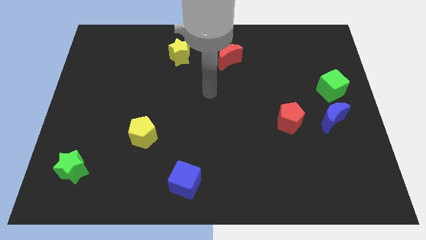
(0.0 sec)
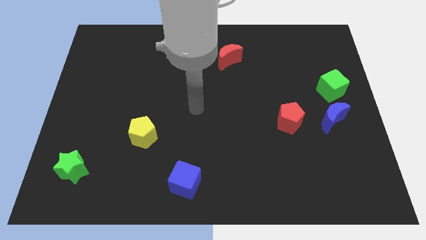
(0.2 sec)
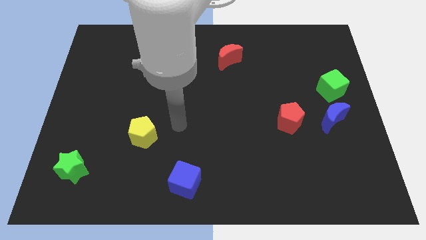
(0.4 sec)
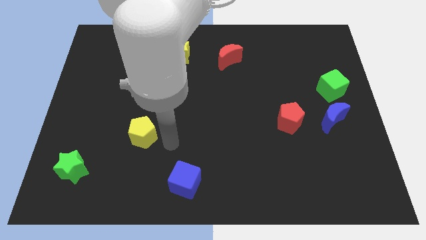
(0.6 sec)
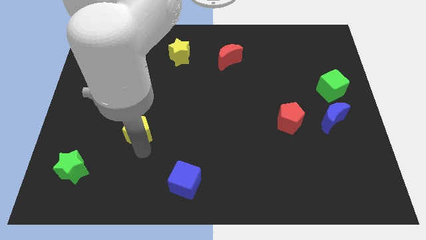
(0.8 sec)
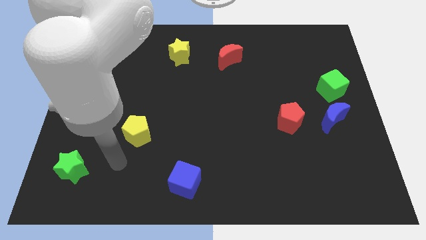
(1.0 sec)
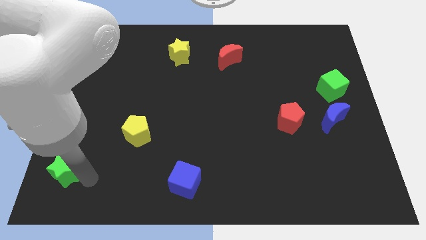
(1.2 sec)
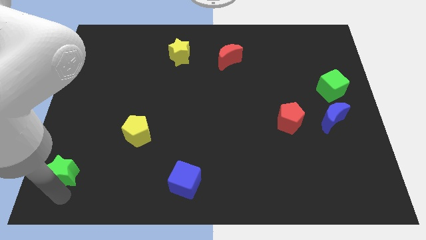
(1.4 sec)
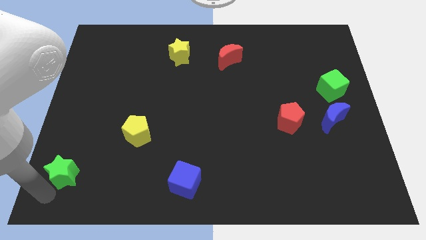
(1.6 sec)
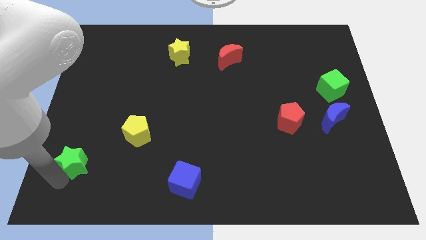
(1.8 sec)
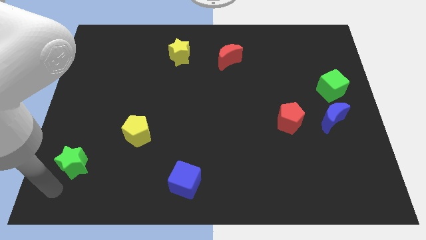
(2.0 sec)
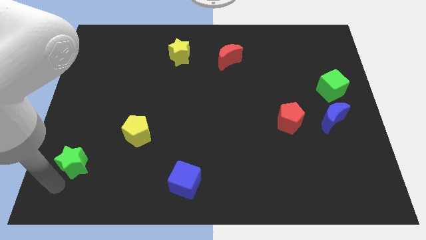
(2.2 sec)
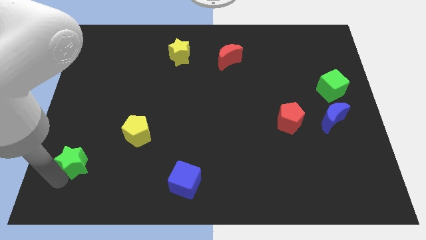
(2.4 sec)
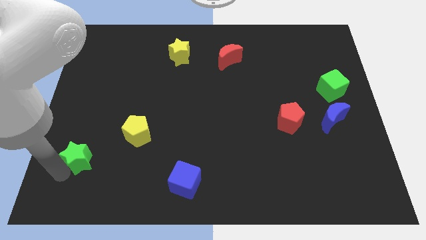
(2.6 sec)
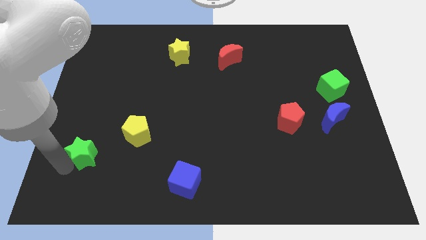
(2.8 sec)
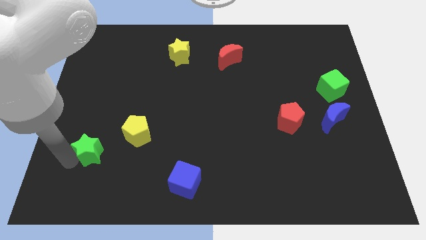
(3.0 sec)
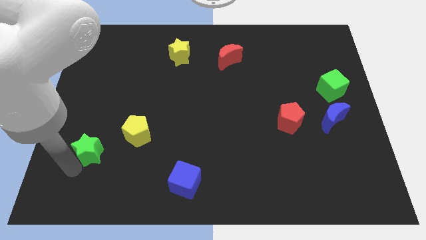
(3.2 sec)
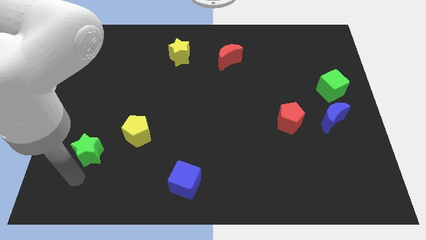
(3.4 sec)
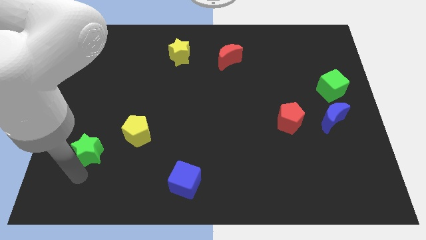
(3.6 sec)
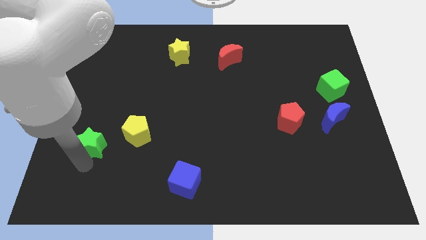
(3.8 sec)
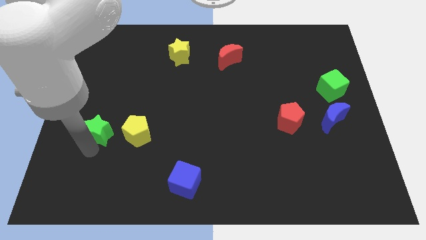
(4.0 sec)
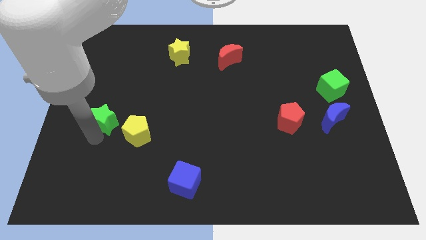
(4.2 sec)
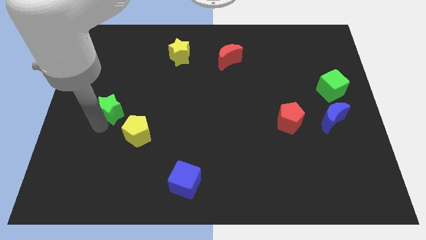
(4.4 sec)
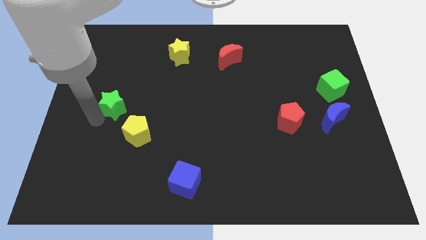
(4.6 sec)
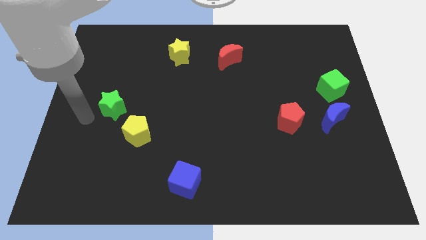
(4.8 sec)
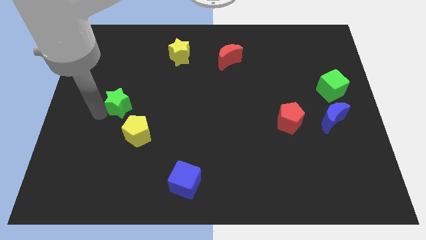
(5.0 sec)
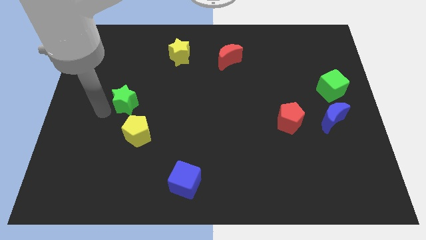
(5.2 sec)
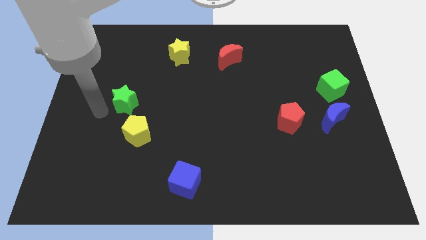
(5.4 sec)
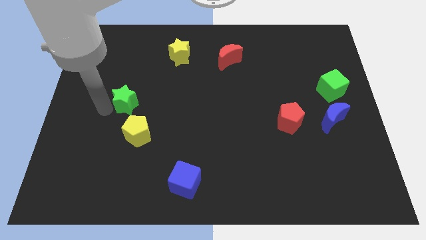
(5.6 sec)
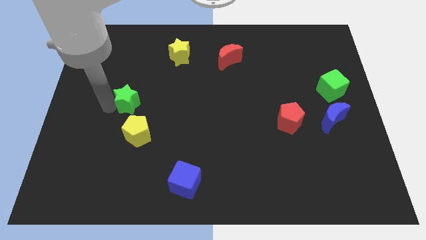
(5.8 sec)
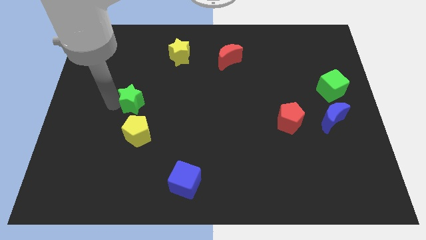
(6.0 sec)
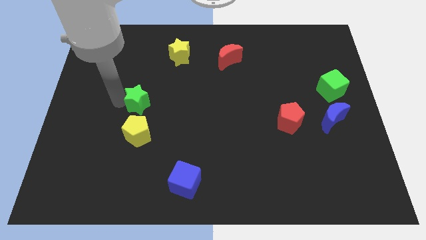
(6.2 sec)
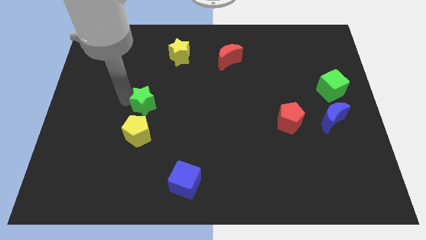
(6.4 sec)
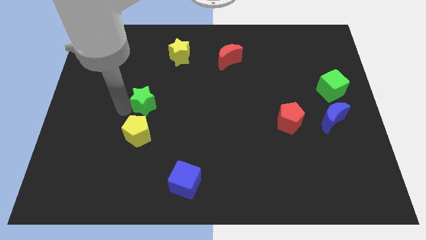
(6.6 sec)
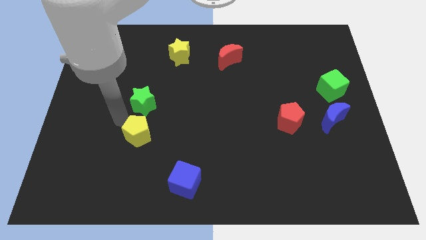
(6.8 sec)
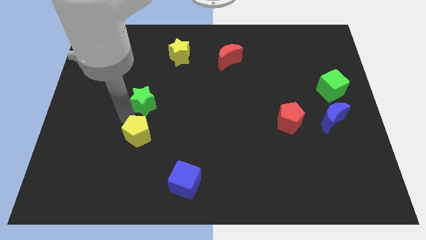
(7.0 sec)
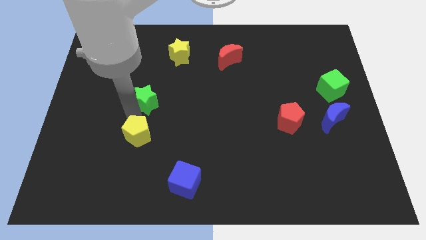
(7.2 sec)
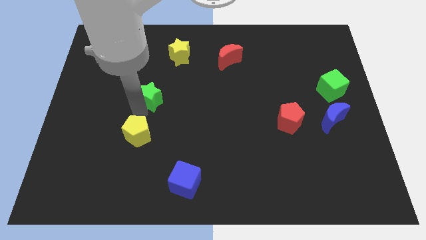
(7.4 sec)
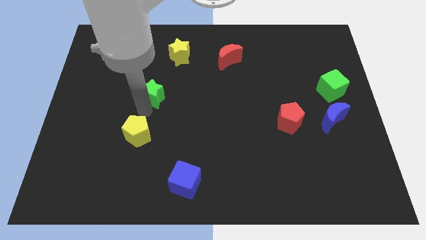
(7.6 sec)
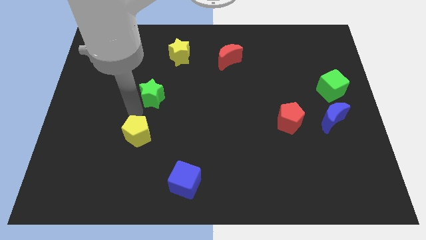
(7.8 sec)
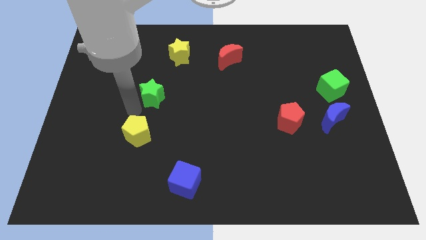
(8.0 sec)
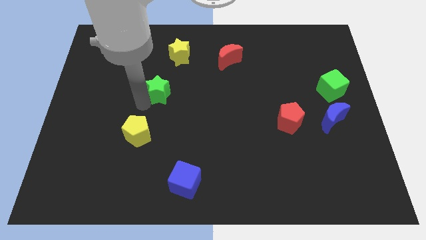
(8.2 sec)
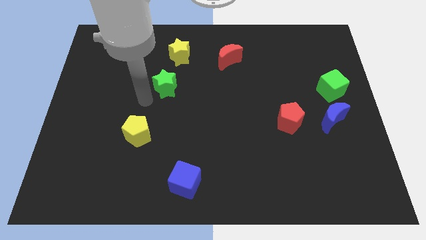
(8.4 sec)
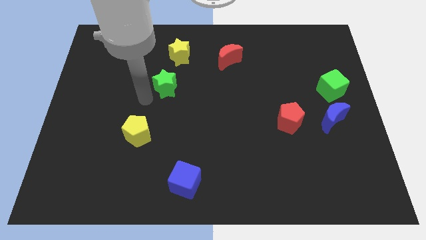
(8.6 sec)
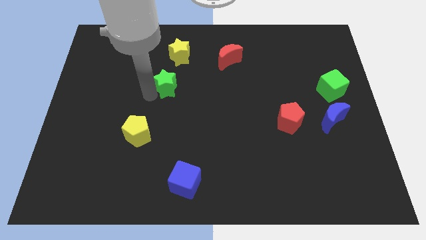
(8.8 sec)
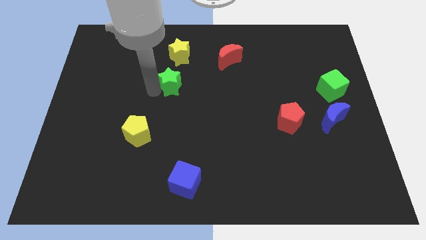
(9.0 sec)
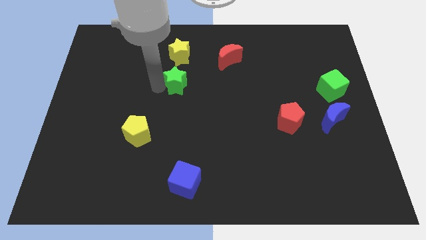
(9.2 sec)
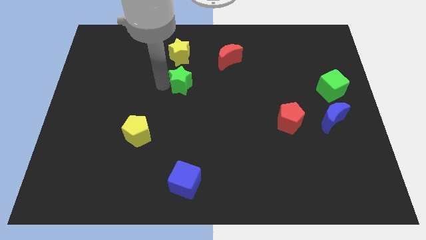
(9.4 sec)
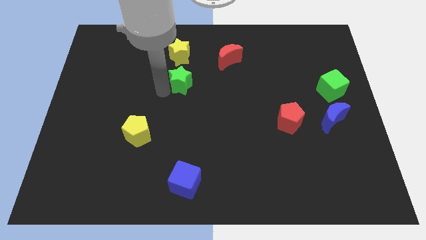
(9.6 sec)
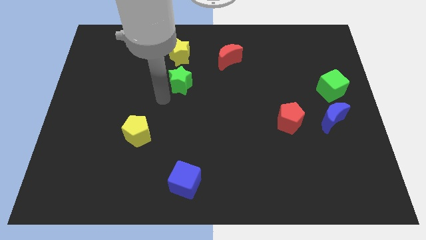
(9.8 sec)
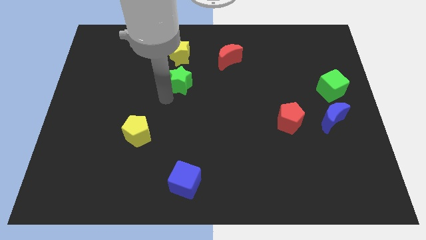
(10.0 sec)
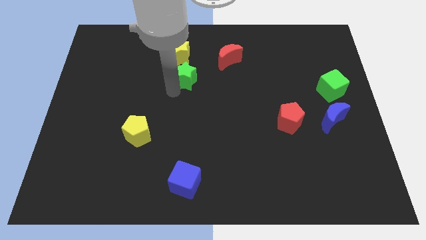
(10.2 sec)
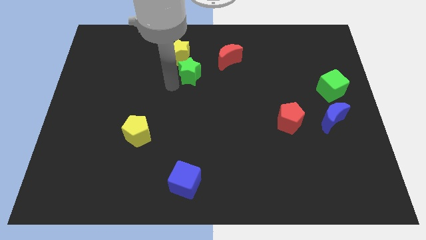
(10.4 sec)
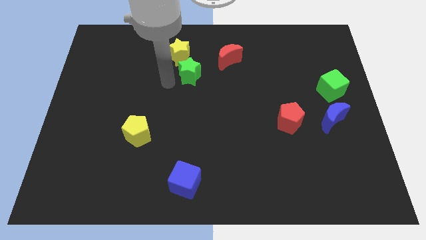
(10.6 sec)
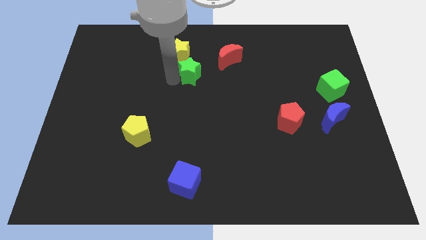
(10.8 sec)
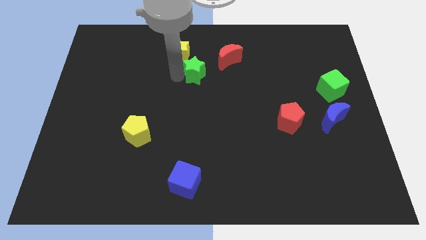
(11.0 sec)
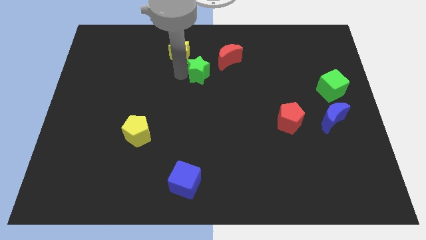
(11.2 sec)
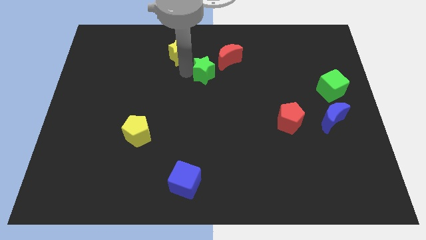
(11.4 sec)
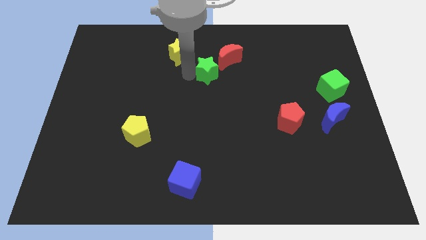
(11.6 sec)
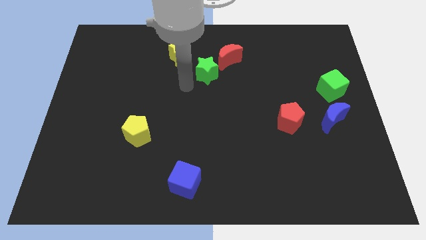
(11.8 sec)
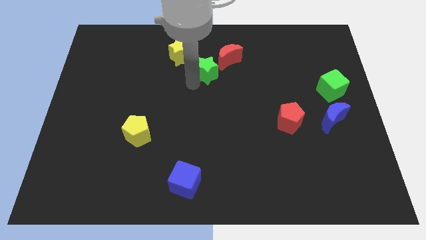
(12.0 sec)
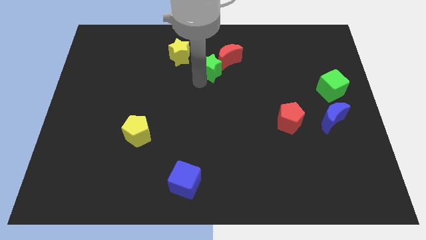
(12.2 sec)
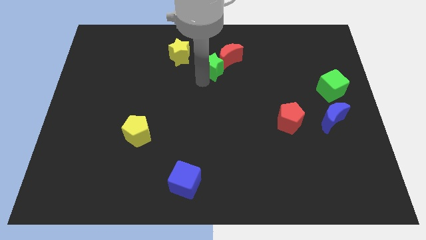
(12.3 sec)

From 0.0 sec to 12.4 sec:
move the green star next to the red moon

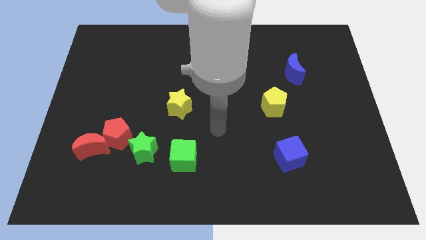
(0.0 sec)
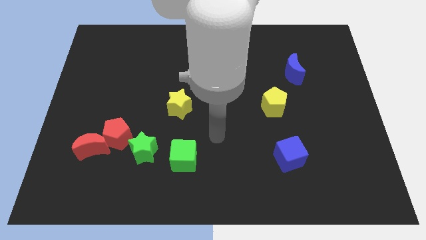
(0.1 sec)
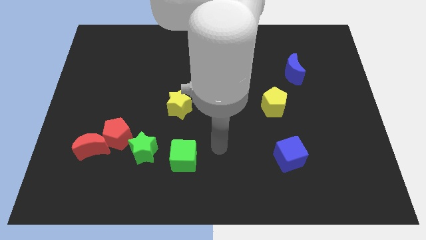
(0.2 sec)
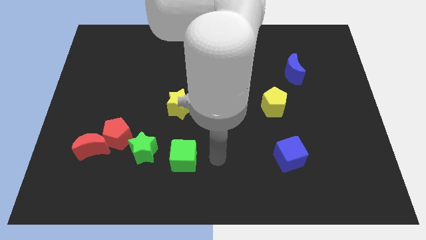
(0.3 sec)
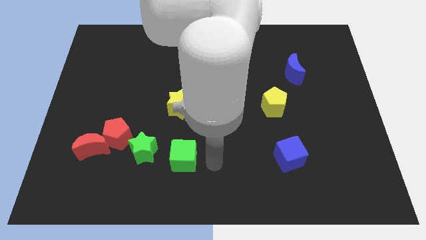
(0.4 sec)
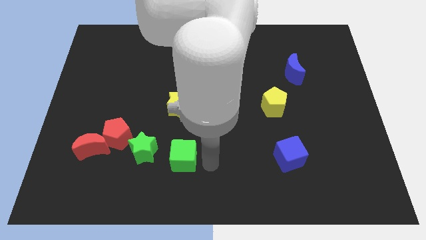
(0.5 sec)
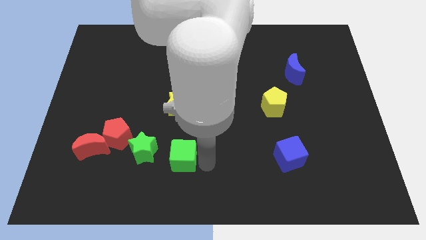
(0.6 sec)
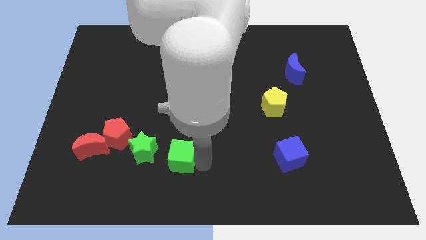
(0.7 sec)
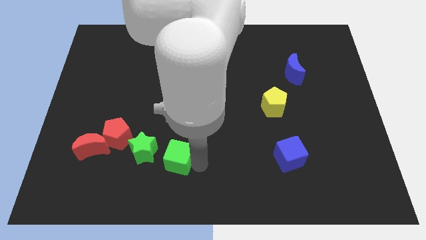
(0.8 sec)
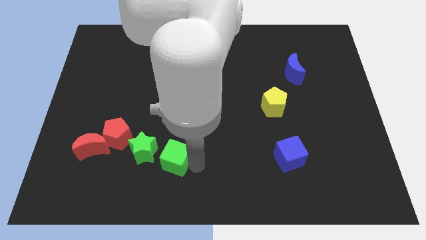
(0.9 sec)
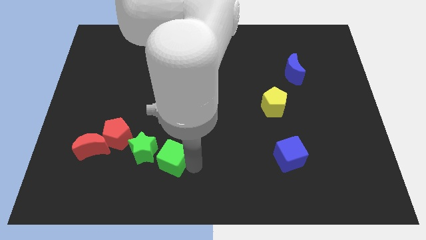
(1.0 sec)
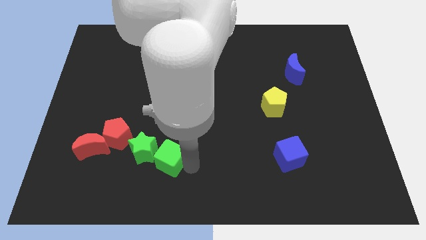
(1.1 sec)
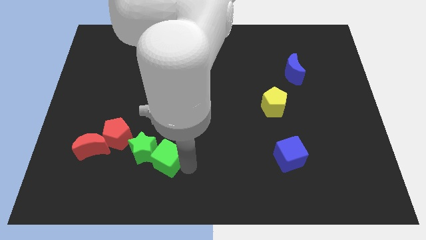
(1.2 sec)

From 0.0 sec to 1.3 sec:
slide the green cube close to the green star

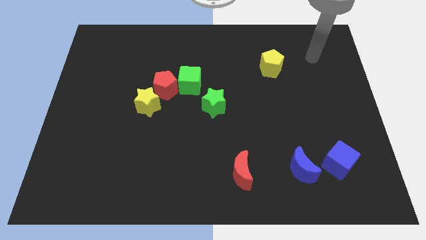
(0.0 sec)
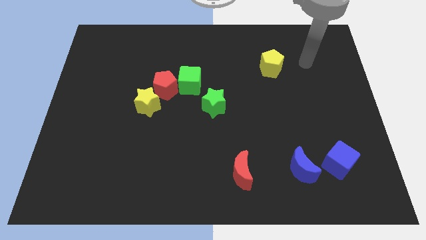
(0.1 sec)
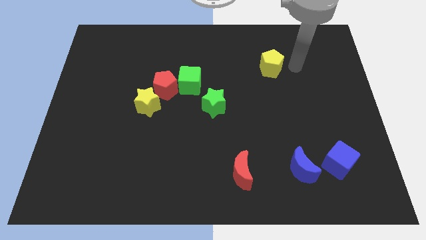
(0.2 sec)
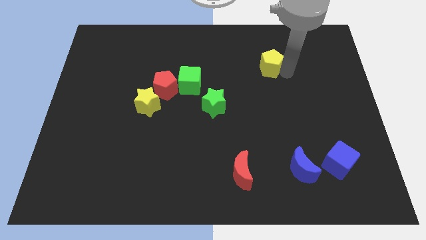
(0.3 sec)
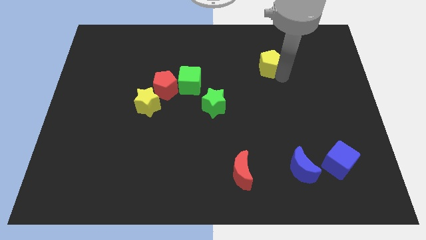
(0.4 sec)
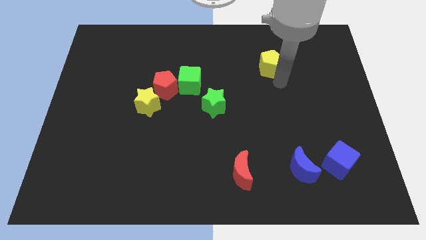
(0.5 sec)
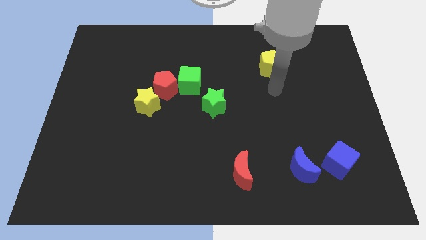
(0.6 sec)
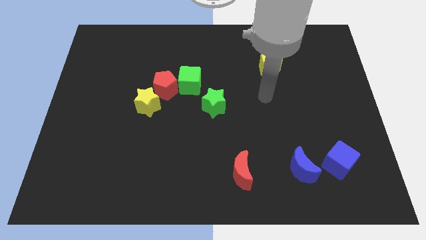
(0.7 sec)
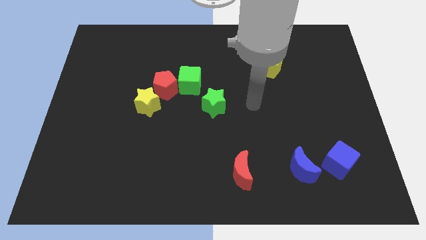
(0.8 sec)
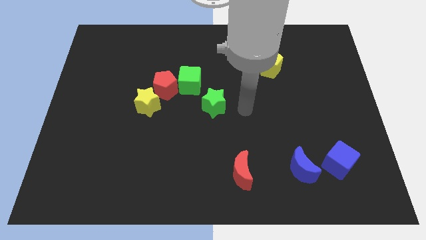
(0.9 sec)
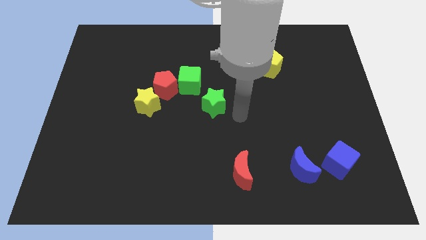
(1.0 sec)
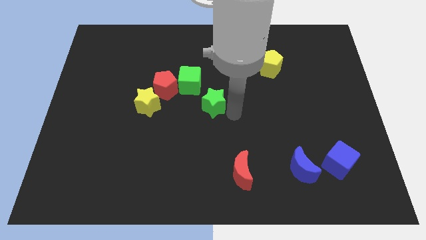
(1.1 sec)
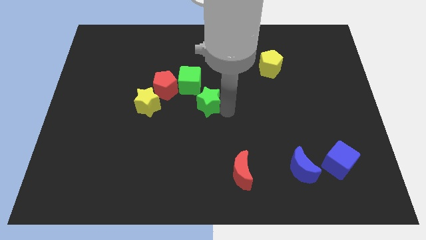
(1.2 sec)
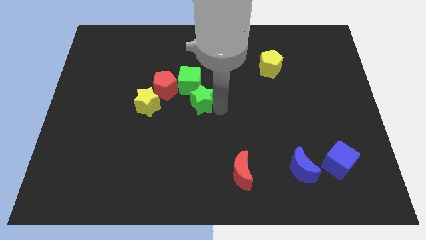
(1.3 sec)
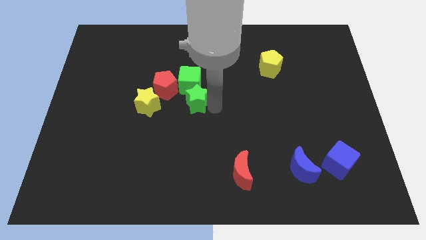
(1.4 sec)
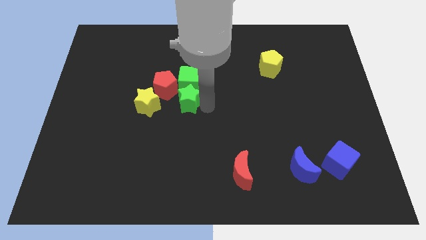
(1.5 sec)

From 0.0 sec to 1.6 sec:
put the green star close to the green cube
